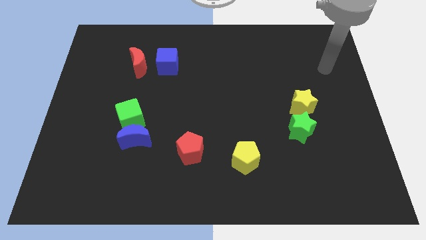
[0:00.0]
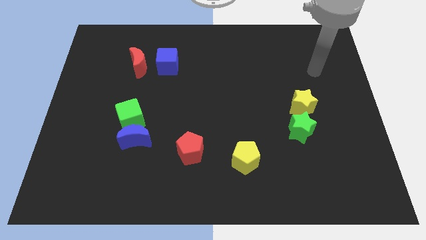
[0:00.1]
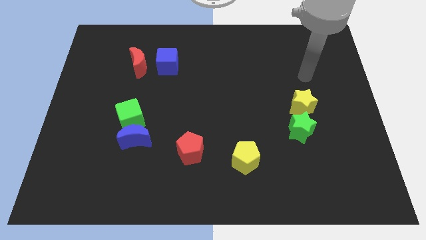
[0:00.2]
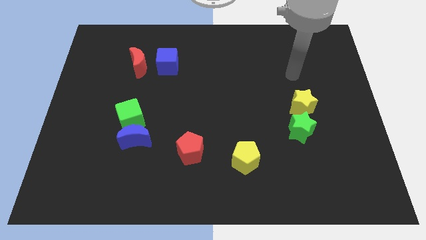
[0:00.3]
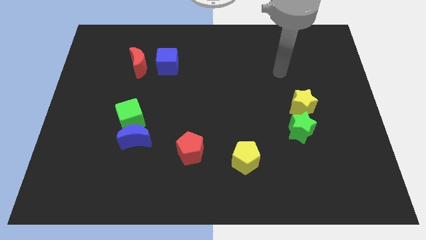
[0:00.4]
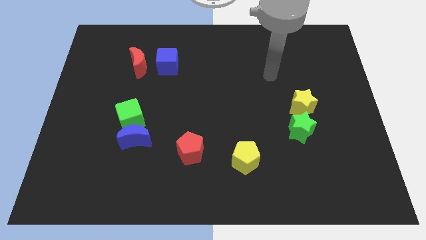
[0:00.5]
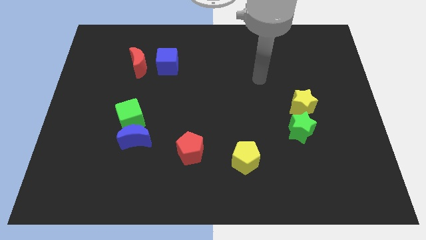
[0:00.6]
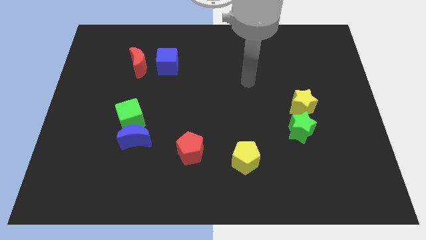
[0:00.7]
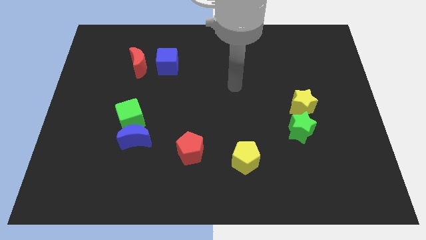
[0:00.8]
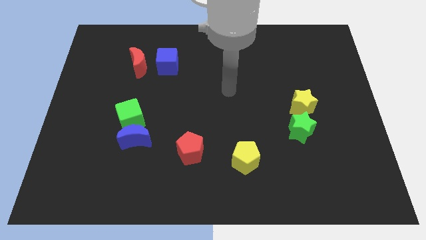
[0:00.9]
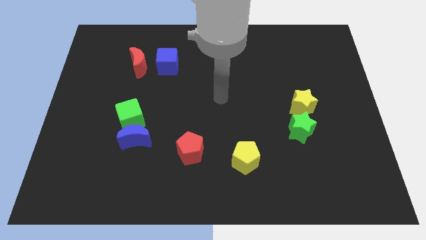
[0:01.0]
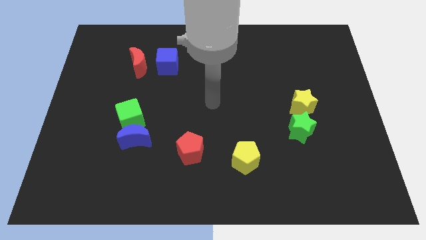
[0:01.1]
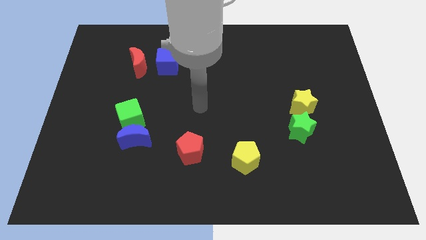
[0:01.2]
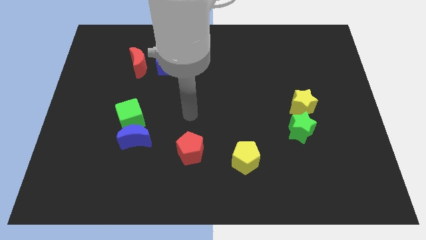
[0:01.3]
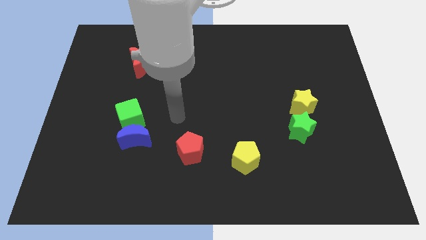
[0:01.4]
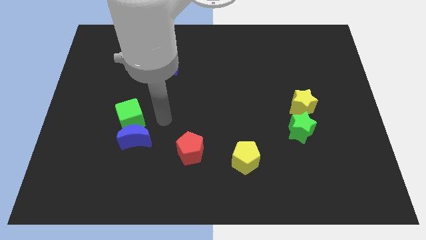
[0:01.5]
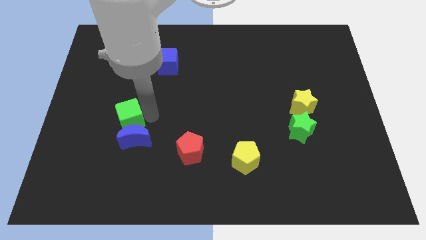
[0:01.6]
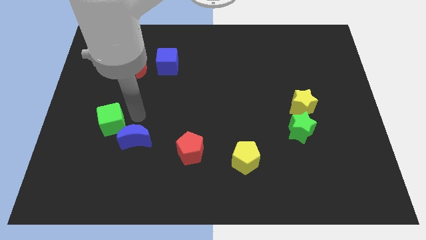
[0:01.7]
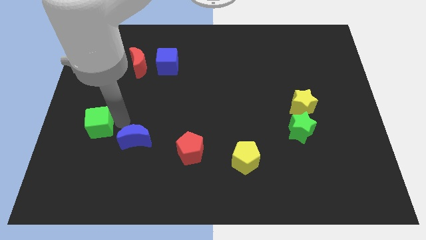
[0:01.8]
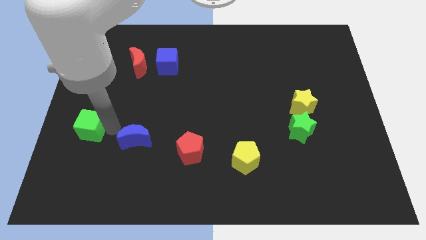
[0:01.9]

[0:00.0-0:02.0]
pull the blue moon apart from the green cube

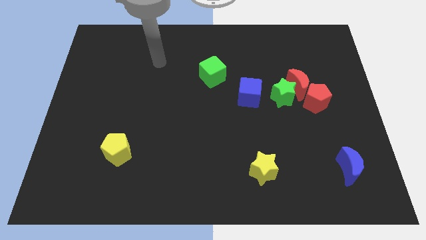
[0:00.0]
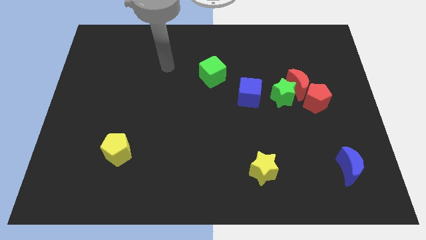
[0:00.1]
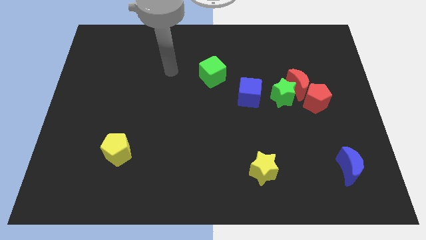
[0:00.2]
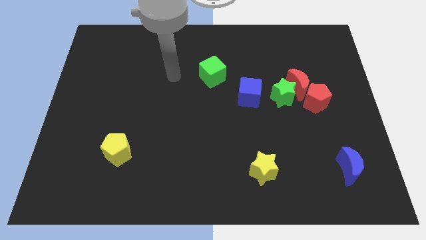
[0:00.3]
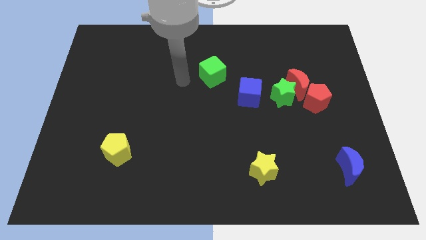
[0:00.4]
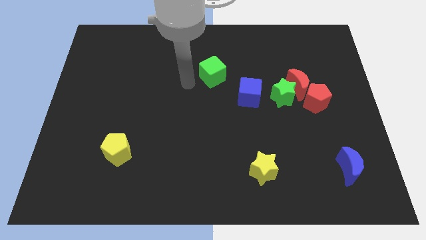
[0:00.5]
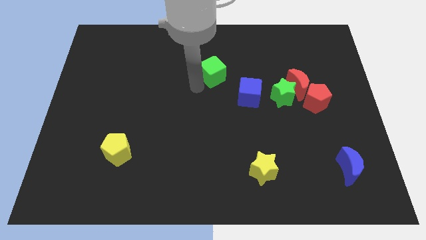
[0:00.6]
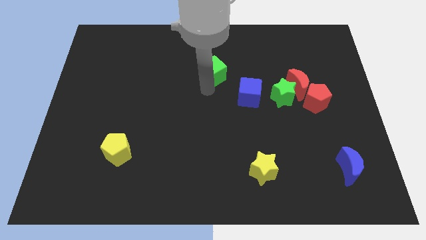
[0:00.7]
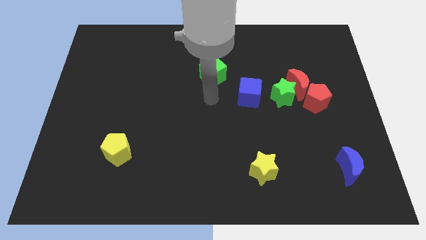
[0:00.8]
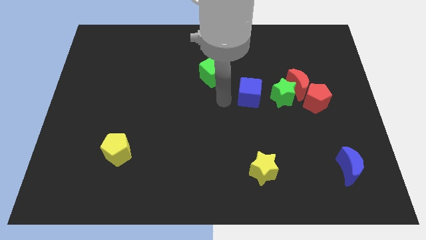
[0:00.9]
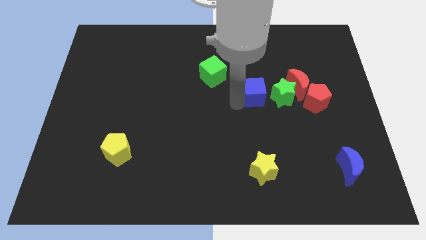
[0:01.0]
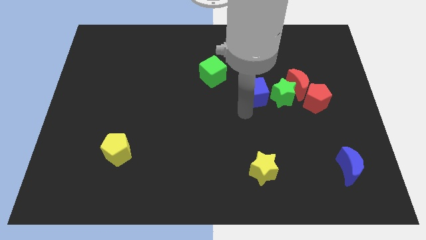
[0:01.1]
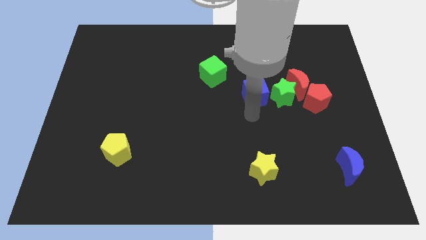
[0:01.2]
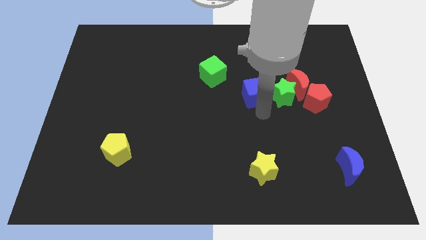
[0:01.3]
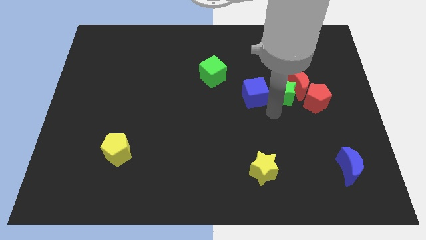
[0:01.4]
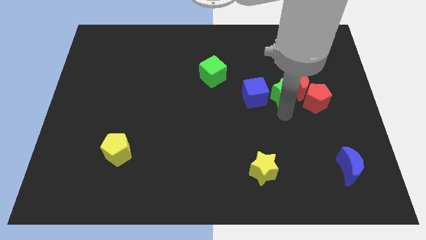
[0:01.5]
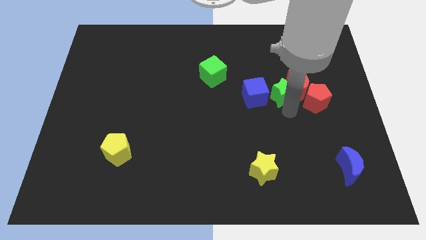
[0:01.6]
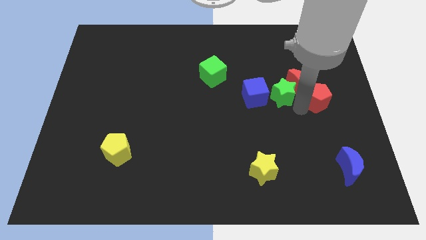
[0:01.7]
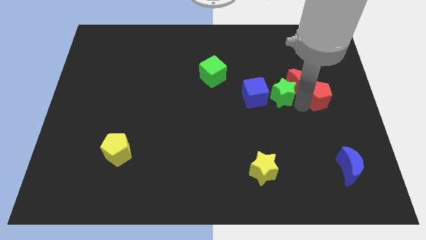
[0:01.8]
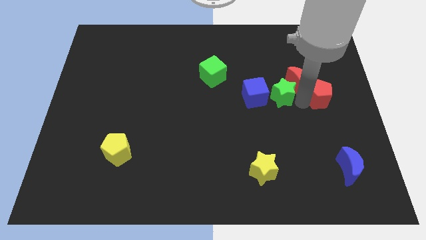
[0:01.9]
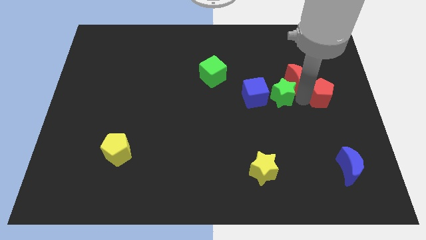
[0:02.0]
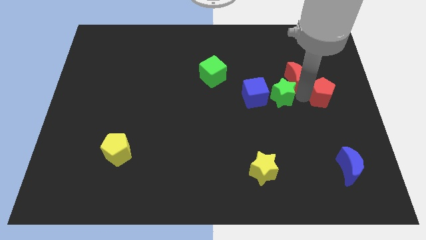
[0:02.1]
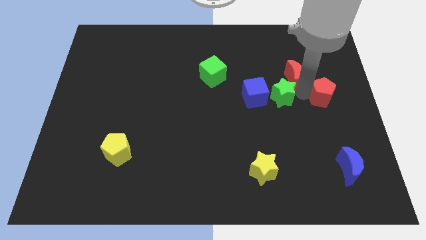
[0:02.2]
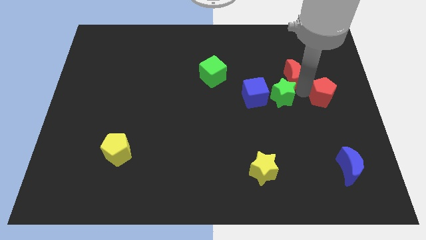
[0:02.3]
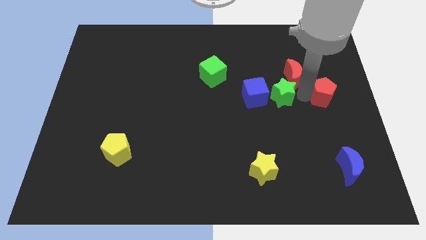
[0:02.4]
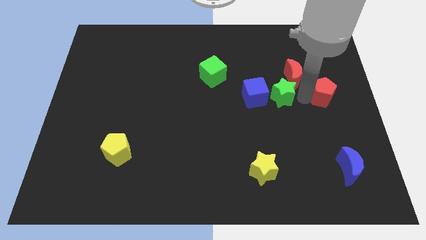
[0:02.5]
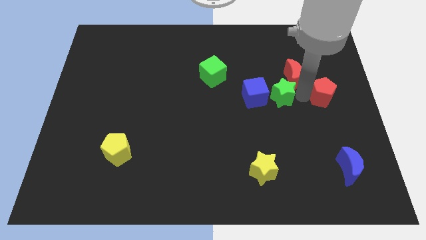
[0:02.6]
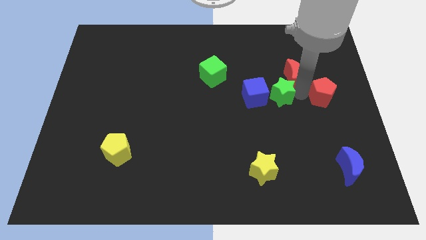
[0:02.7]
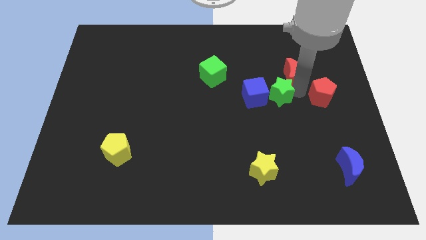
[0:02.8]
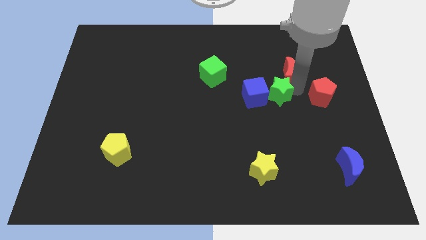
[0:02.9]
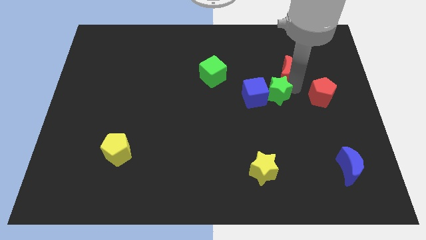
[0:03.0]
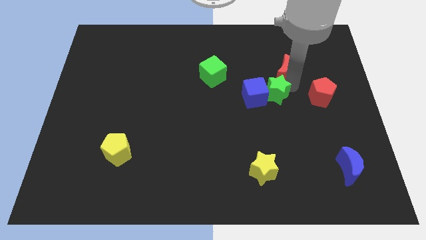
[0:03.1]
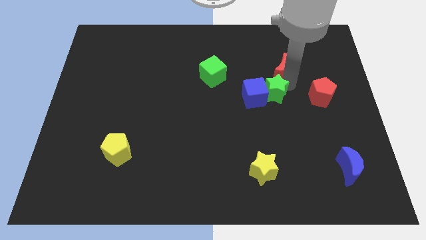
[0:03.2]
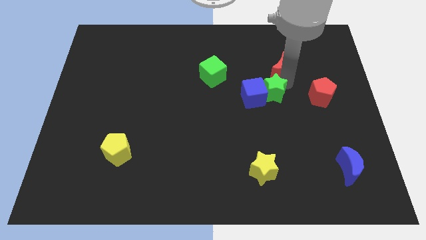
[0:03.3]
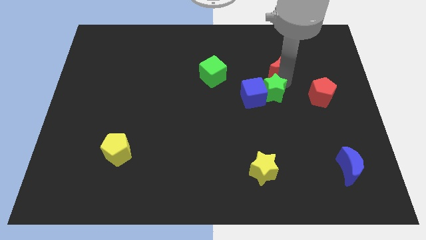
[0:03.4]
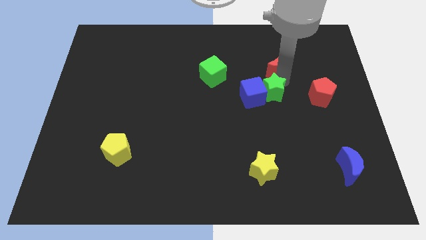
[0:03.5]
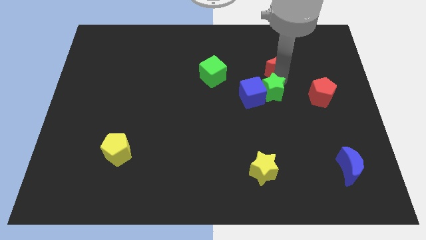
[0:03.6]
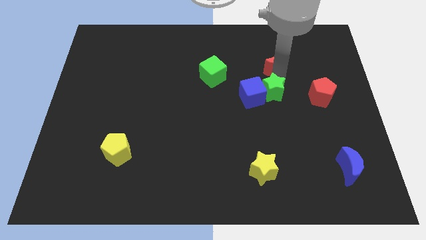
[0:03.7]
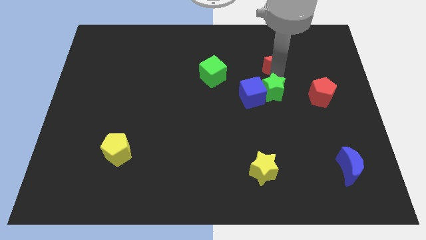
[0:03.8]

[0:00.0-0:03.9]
move the red moon away from the green star and red pentagon

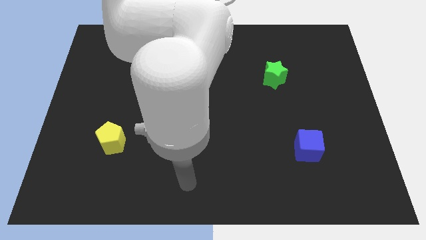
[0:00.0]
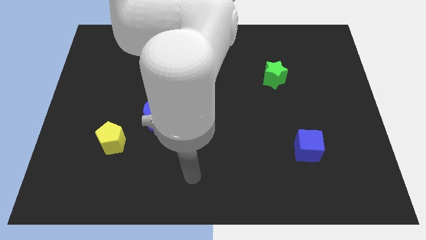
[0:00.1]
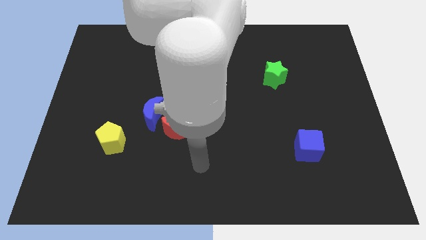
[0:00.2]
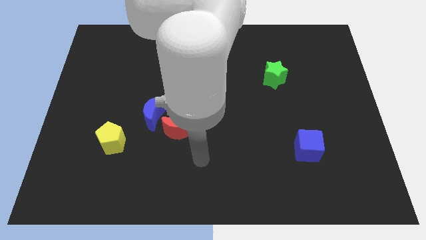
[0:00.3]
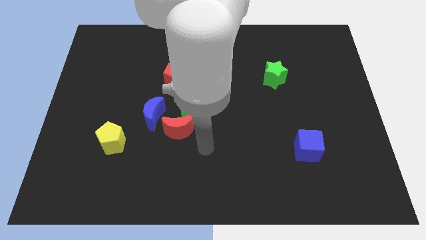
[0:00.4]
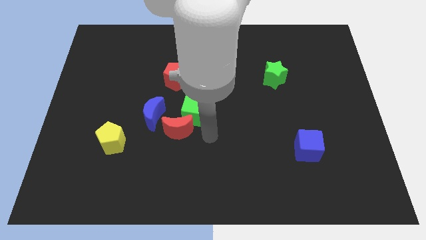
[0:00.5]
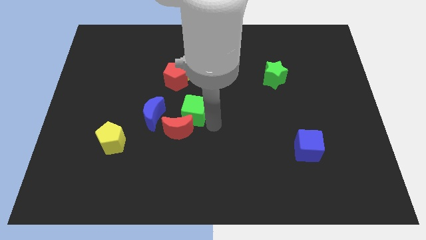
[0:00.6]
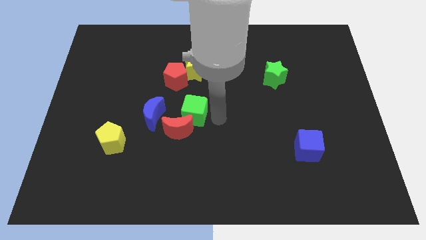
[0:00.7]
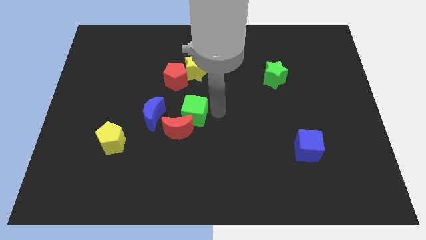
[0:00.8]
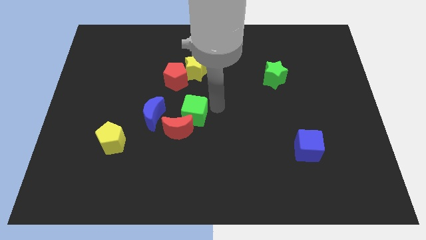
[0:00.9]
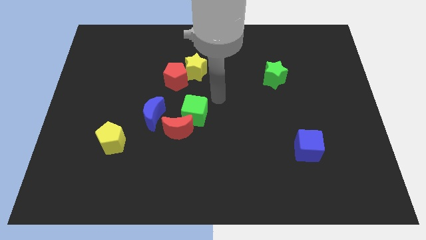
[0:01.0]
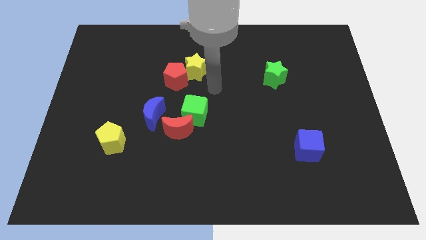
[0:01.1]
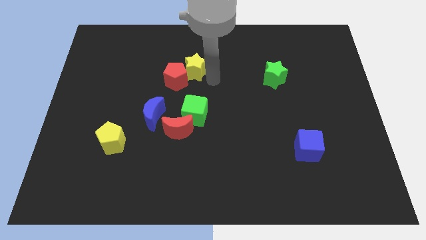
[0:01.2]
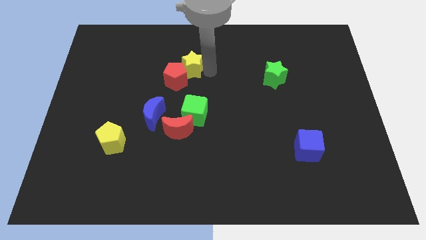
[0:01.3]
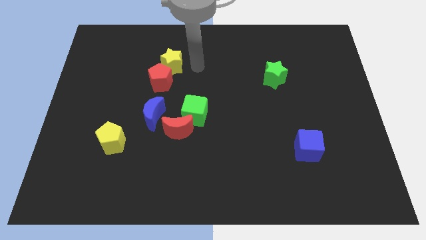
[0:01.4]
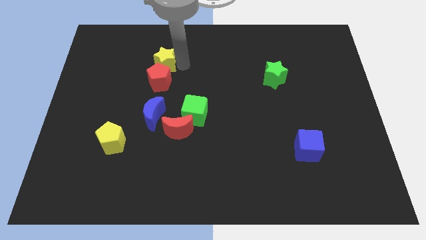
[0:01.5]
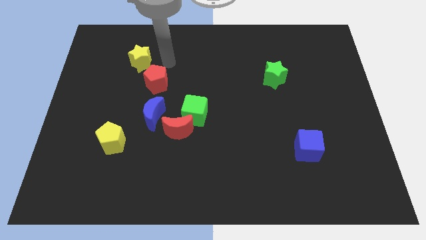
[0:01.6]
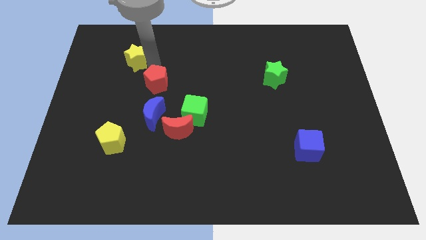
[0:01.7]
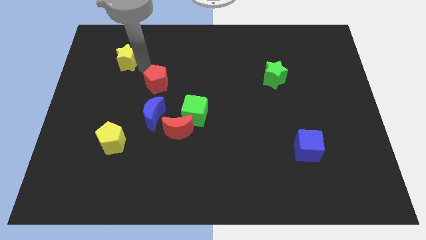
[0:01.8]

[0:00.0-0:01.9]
separate the red pentagon from the yellow star

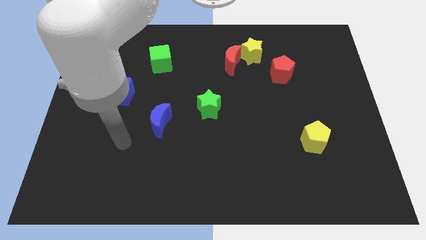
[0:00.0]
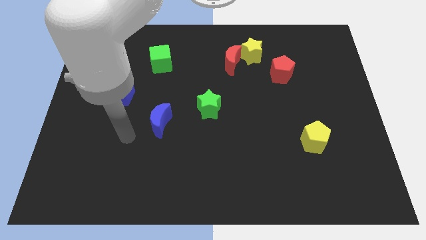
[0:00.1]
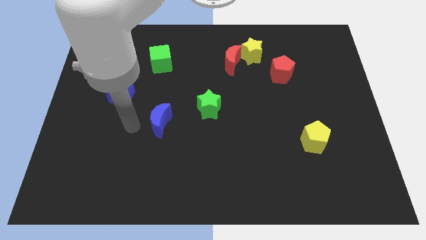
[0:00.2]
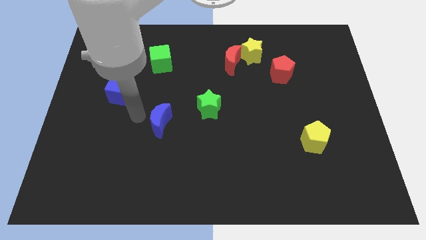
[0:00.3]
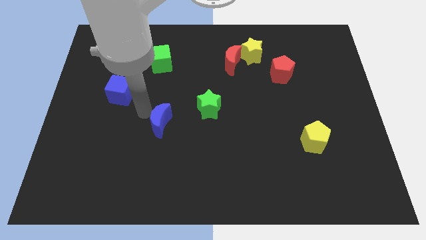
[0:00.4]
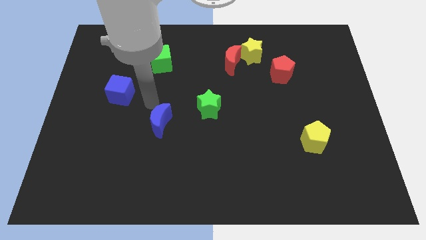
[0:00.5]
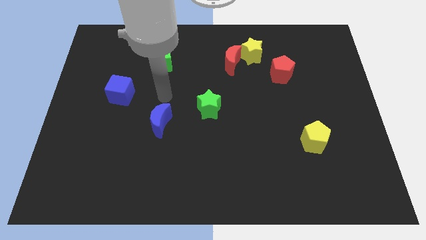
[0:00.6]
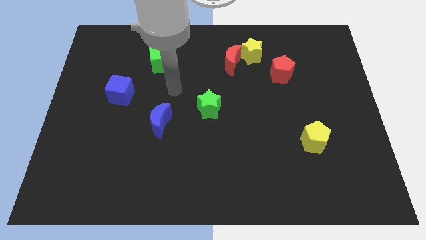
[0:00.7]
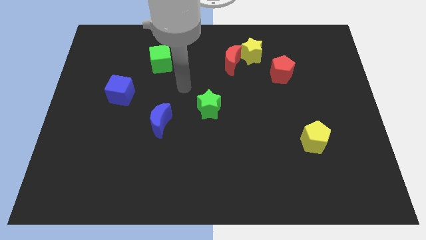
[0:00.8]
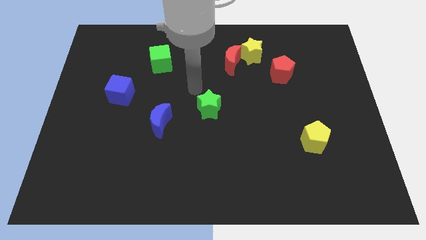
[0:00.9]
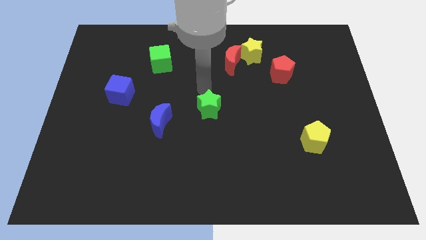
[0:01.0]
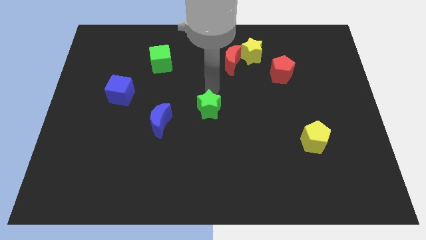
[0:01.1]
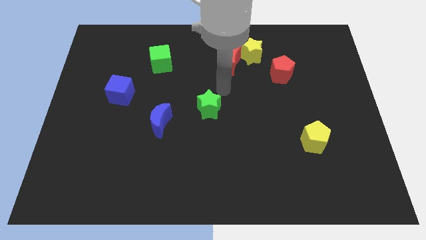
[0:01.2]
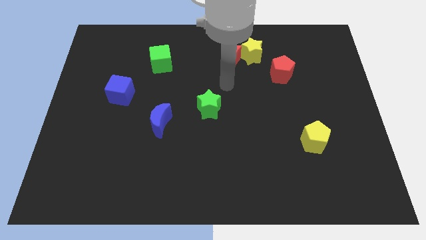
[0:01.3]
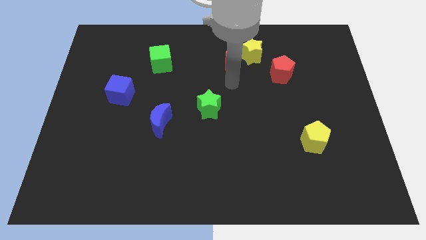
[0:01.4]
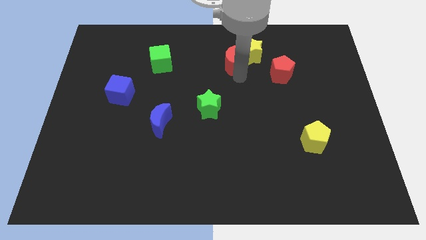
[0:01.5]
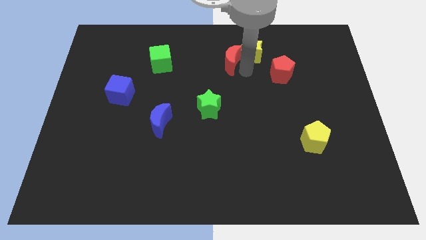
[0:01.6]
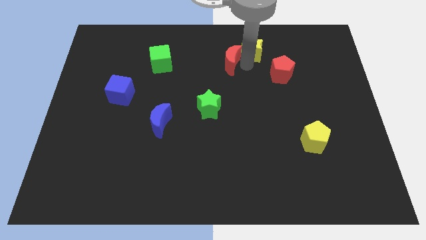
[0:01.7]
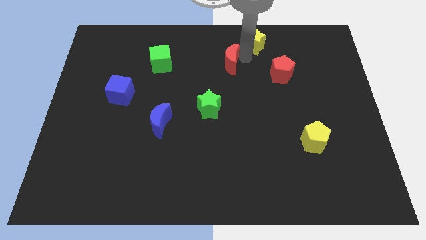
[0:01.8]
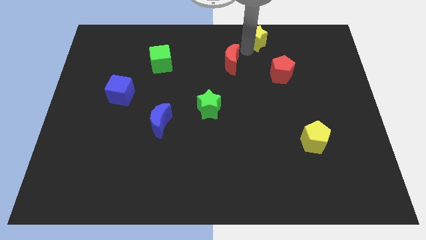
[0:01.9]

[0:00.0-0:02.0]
move the red moon away from the yellow star
